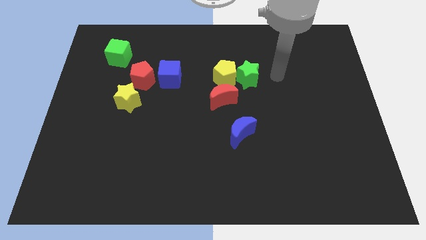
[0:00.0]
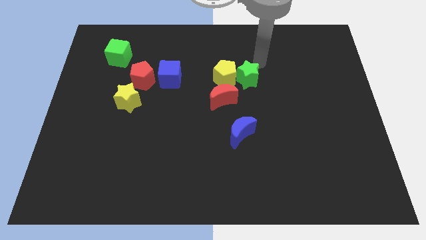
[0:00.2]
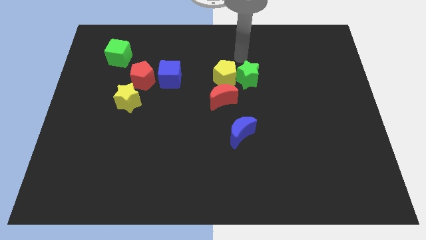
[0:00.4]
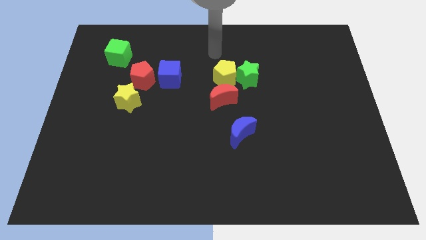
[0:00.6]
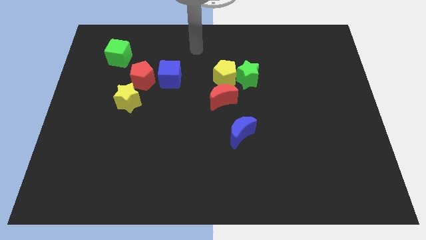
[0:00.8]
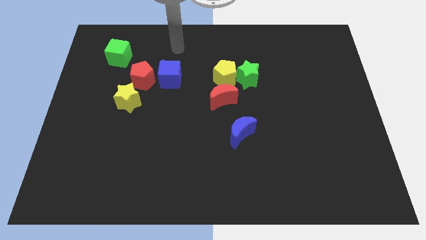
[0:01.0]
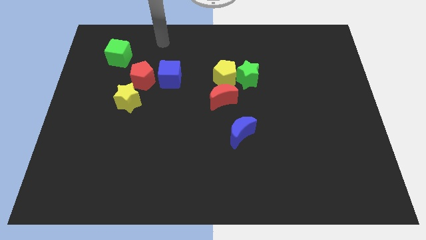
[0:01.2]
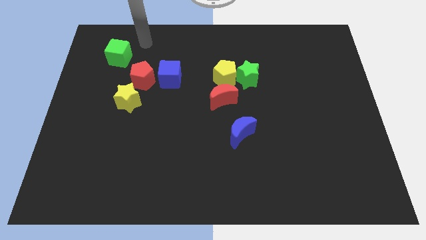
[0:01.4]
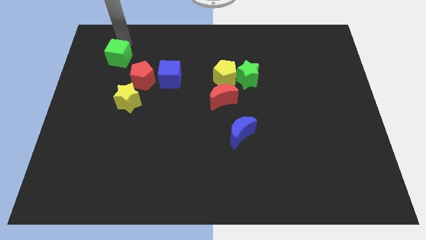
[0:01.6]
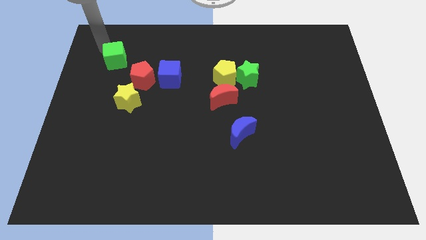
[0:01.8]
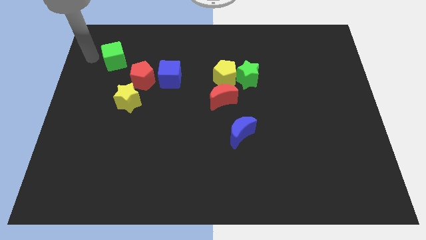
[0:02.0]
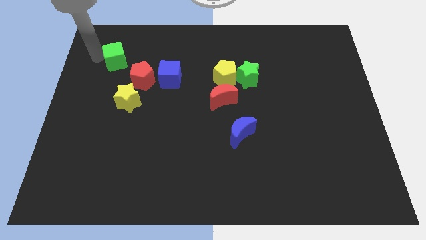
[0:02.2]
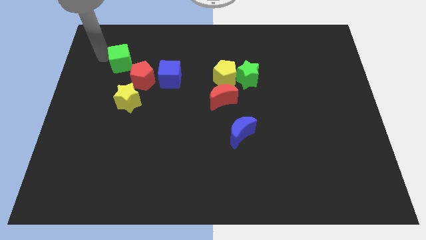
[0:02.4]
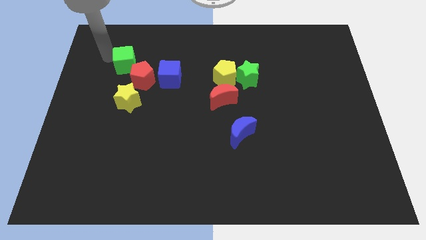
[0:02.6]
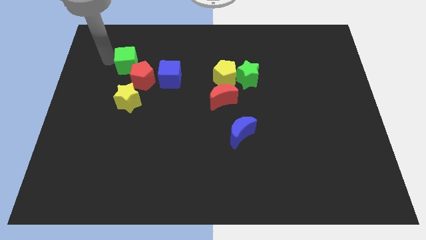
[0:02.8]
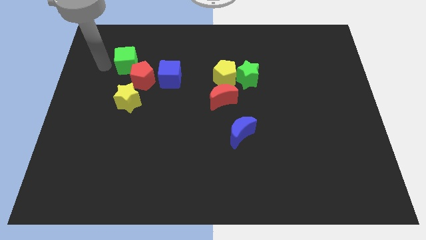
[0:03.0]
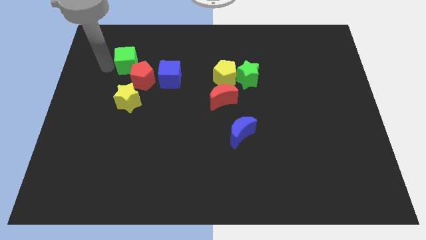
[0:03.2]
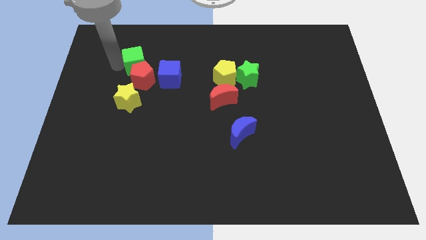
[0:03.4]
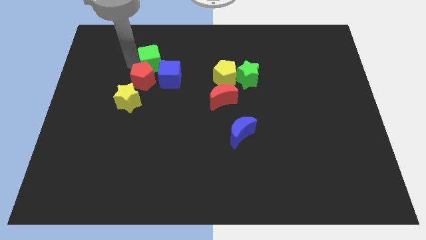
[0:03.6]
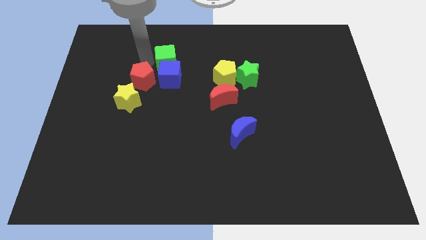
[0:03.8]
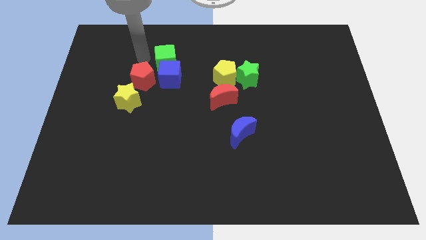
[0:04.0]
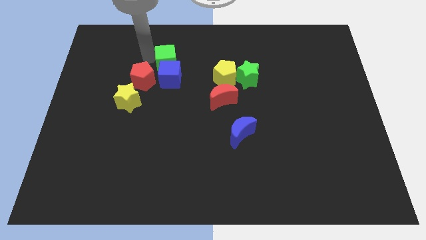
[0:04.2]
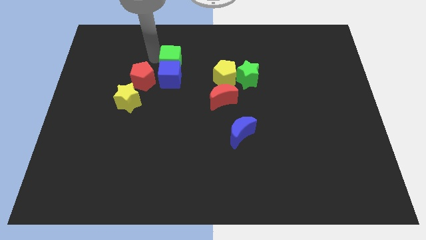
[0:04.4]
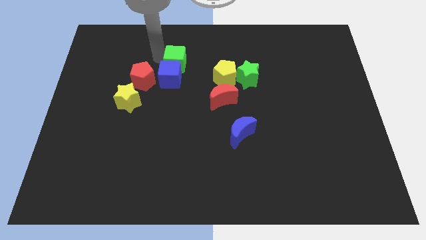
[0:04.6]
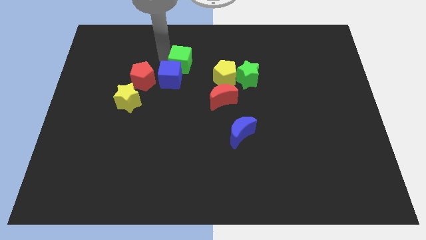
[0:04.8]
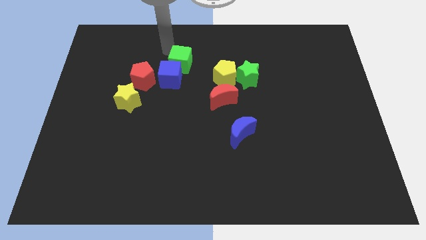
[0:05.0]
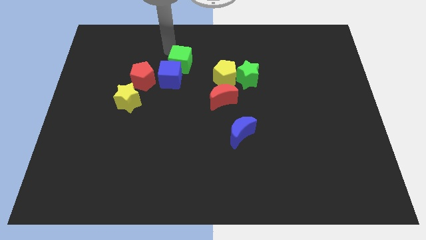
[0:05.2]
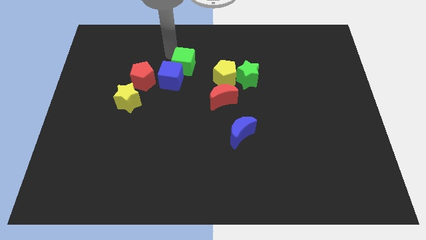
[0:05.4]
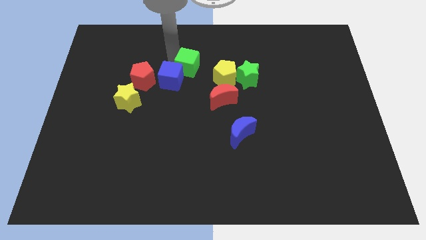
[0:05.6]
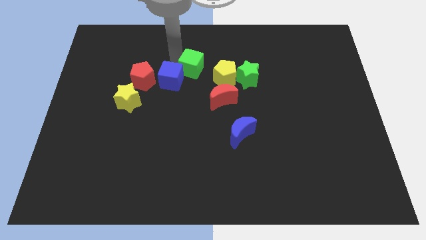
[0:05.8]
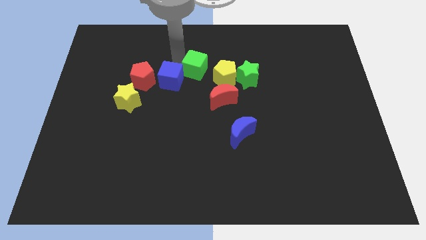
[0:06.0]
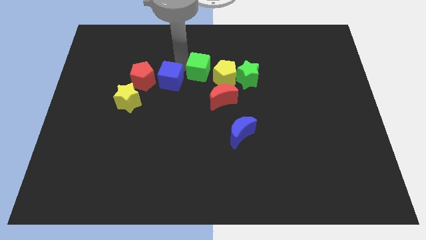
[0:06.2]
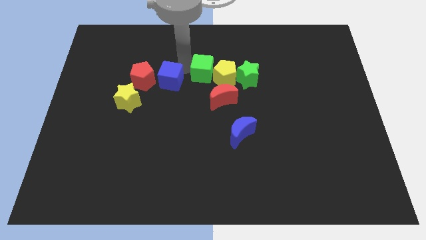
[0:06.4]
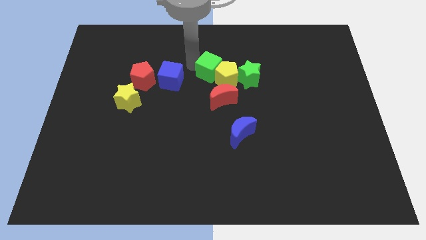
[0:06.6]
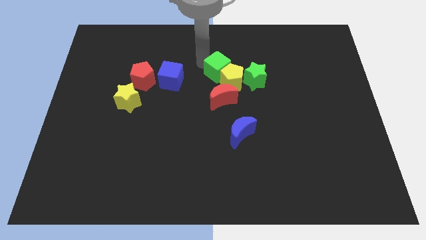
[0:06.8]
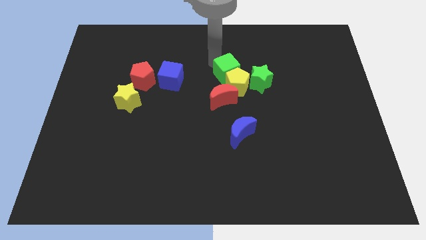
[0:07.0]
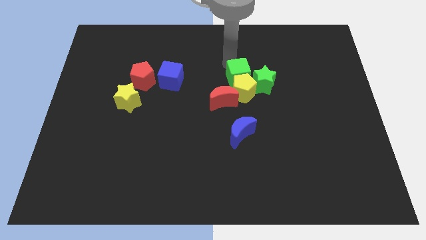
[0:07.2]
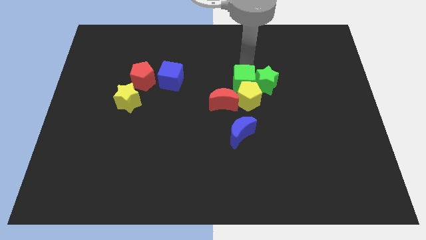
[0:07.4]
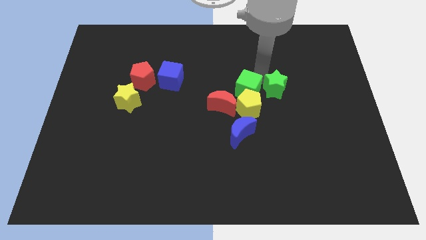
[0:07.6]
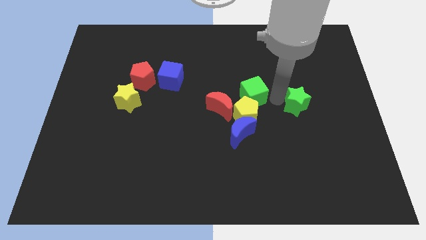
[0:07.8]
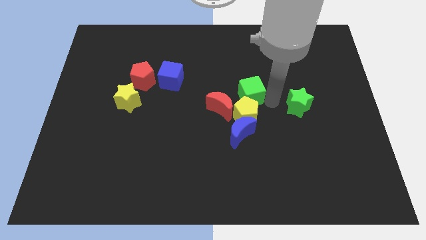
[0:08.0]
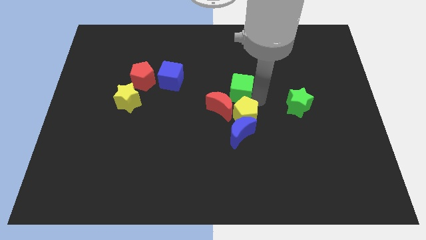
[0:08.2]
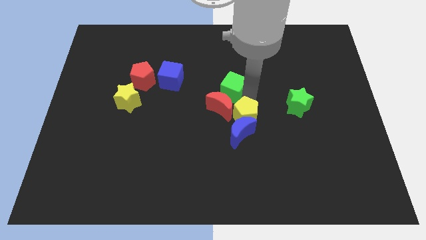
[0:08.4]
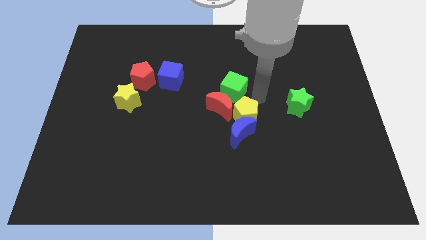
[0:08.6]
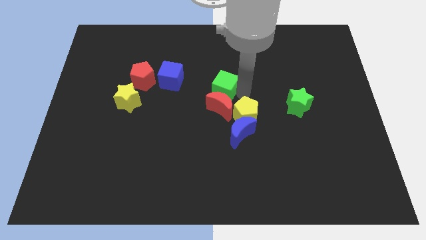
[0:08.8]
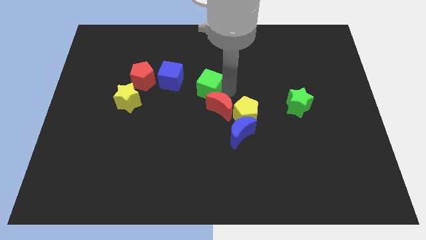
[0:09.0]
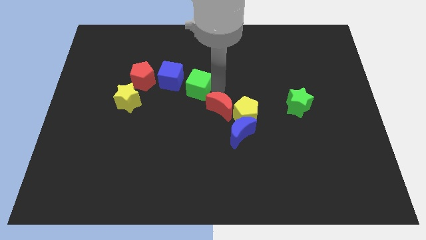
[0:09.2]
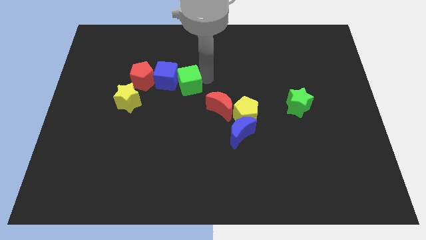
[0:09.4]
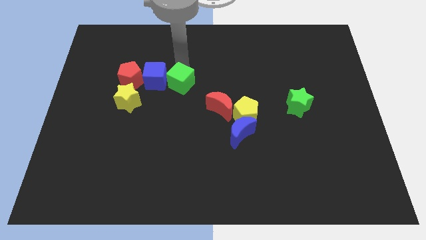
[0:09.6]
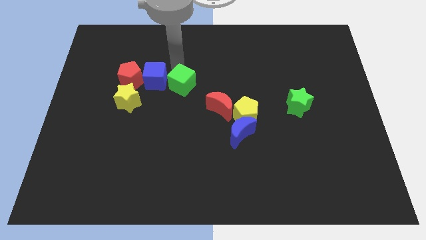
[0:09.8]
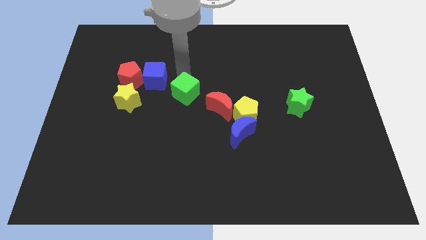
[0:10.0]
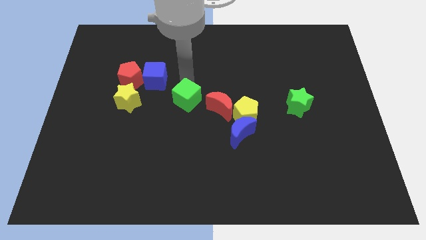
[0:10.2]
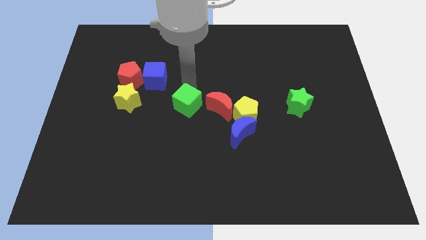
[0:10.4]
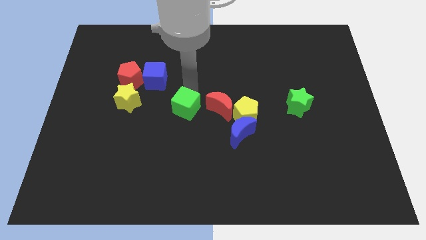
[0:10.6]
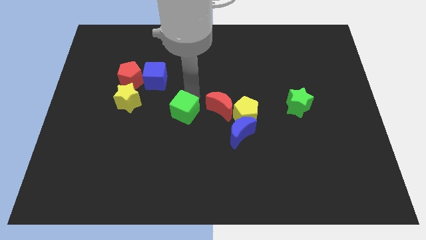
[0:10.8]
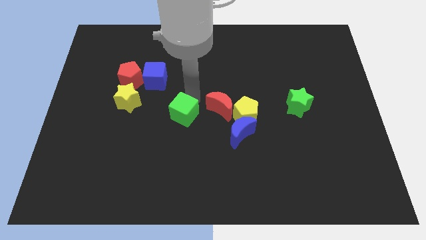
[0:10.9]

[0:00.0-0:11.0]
move the green cube to the bottom left of the red moon

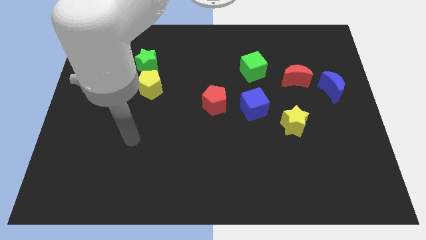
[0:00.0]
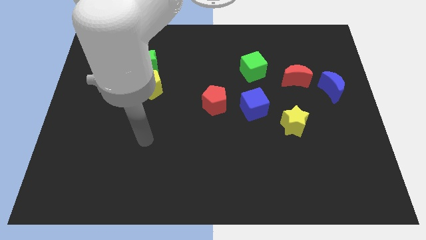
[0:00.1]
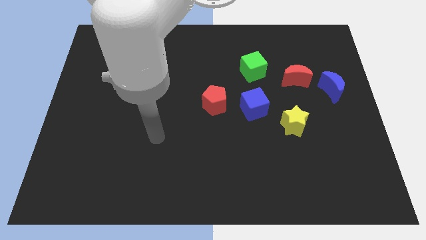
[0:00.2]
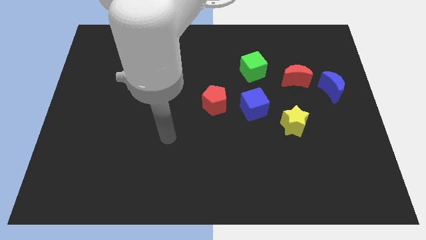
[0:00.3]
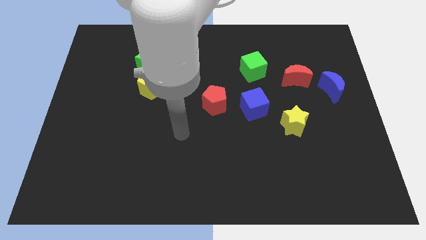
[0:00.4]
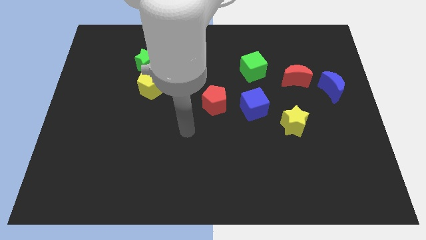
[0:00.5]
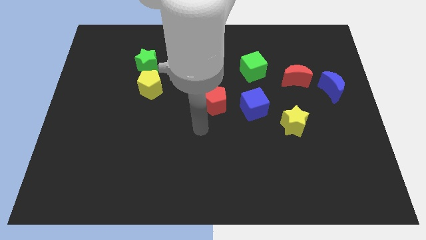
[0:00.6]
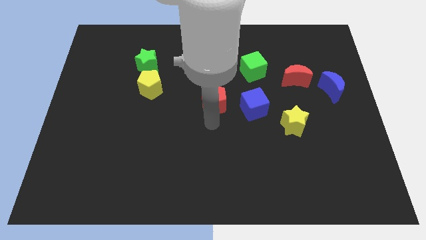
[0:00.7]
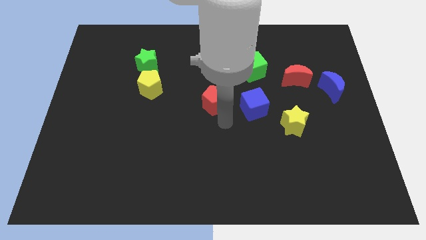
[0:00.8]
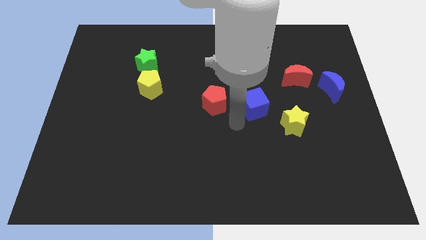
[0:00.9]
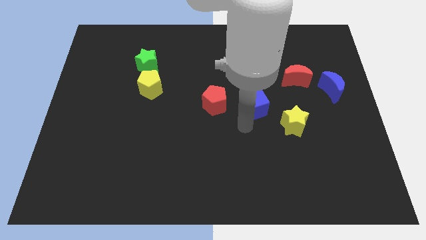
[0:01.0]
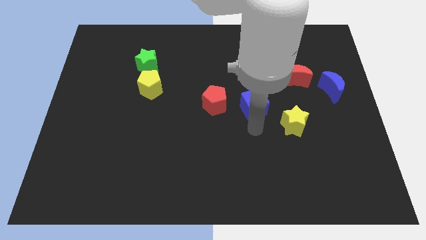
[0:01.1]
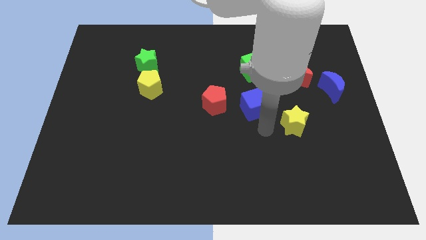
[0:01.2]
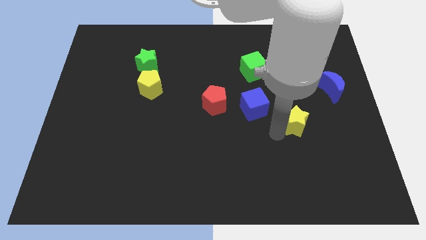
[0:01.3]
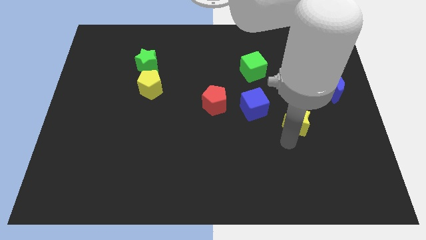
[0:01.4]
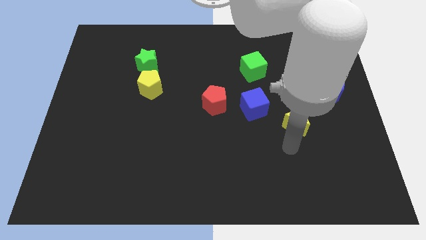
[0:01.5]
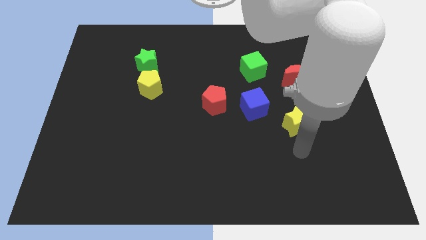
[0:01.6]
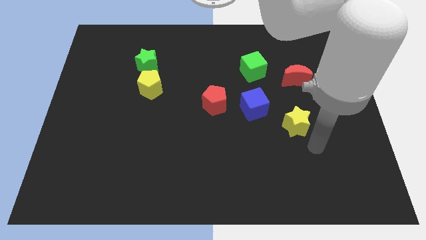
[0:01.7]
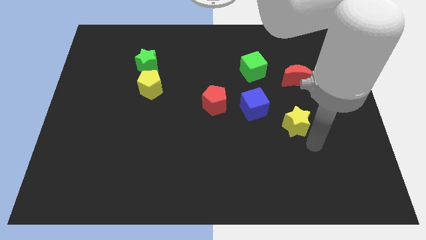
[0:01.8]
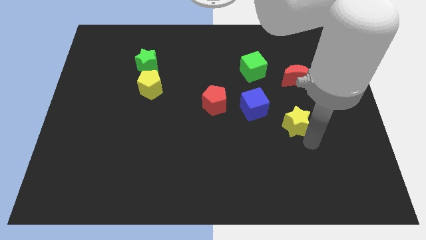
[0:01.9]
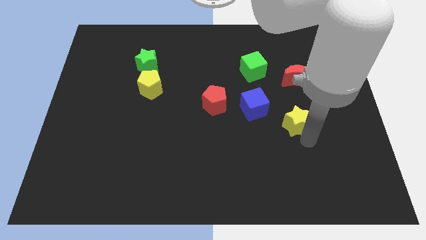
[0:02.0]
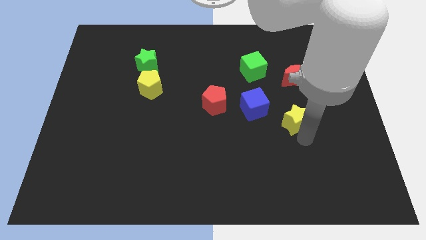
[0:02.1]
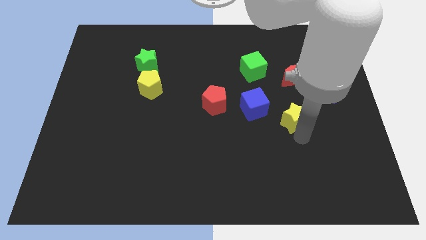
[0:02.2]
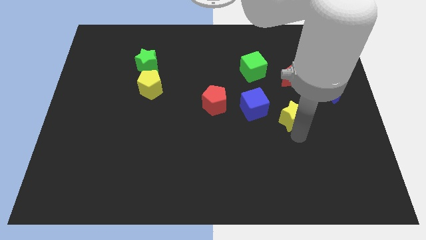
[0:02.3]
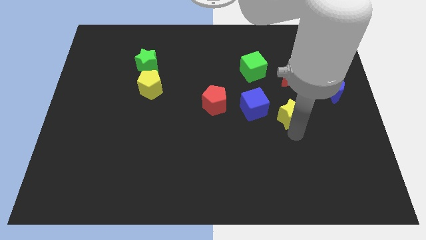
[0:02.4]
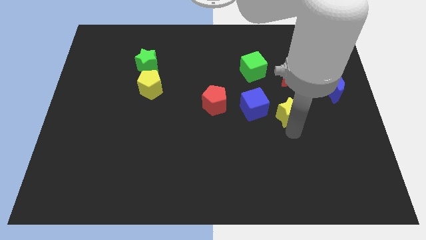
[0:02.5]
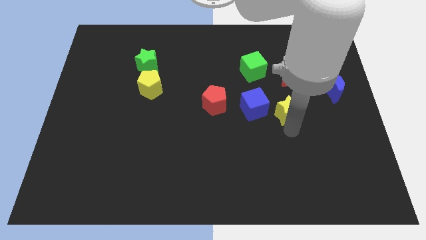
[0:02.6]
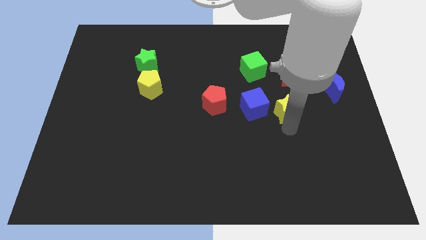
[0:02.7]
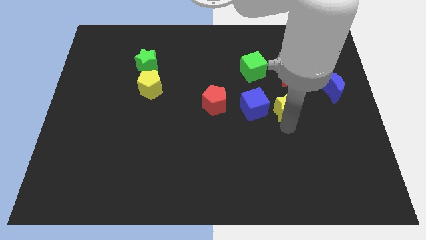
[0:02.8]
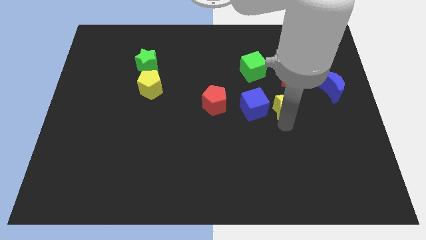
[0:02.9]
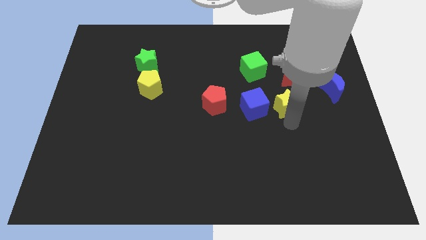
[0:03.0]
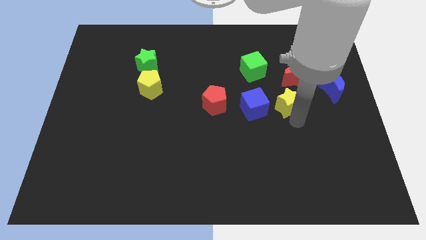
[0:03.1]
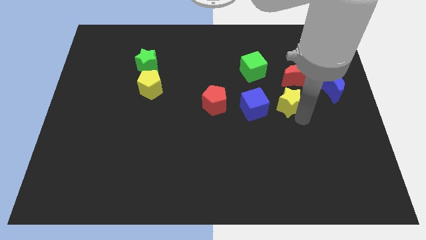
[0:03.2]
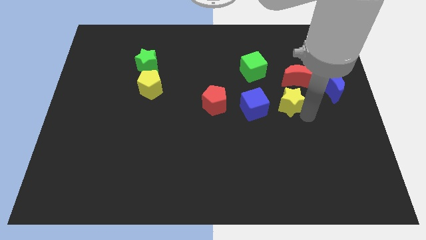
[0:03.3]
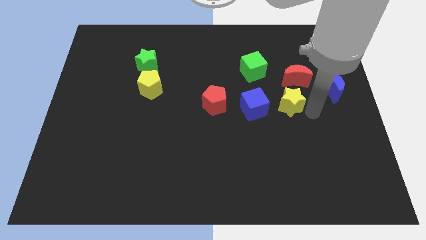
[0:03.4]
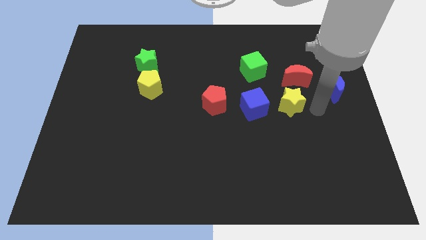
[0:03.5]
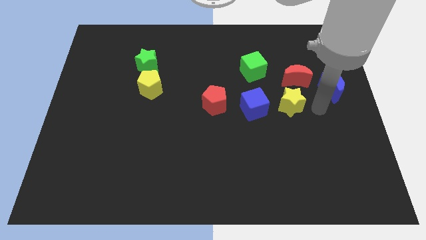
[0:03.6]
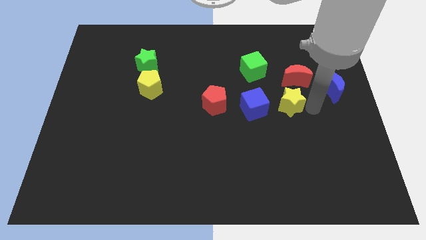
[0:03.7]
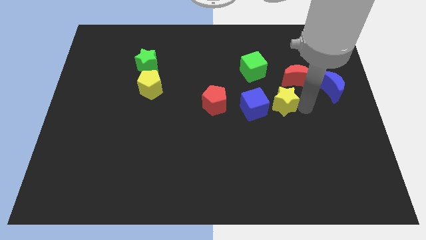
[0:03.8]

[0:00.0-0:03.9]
push the yellow star right of the red pentagon
